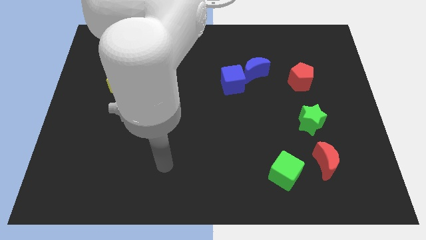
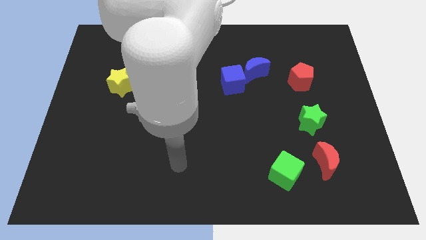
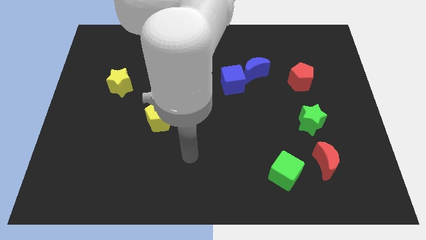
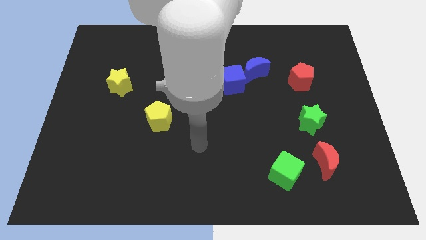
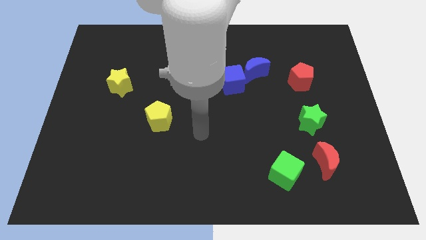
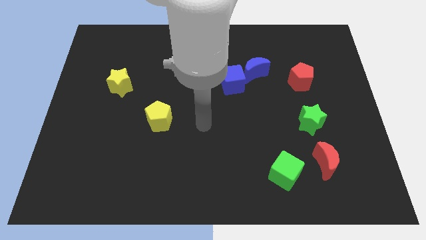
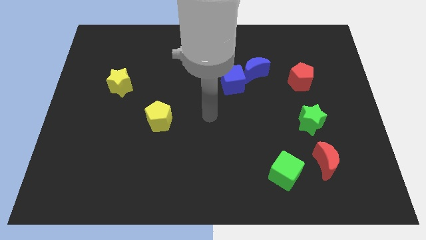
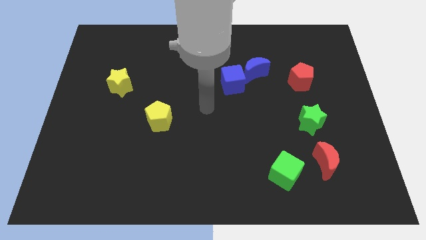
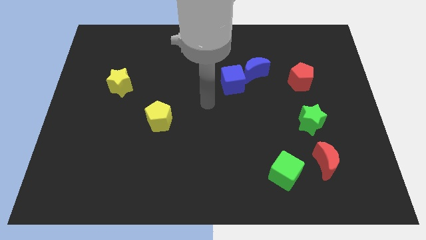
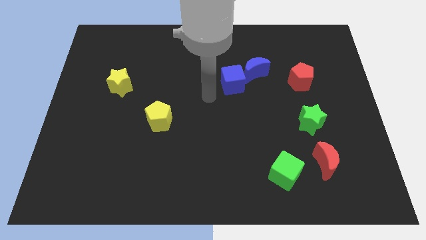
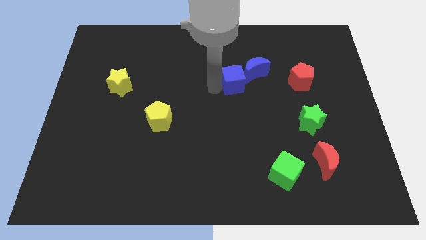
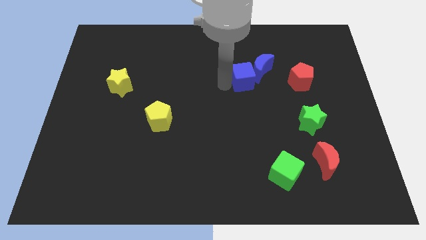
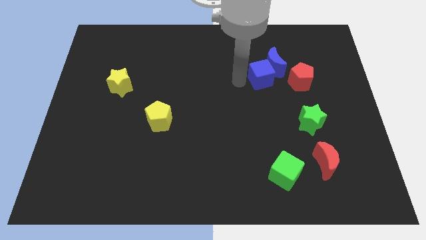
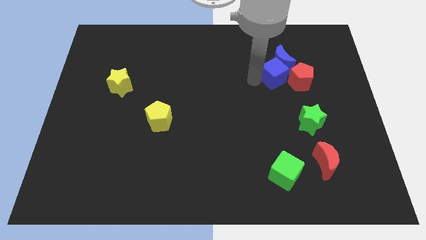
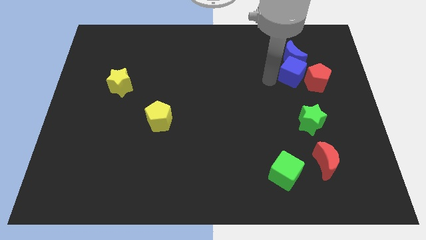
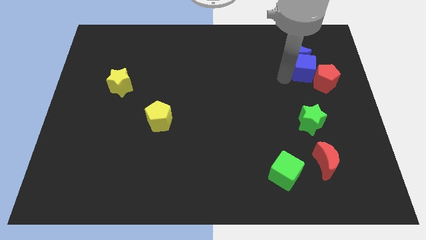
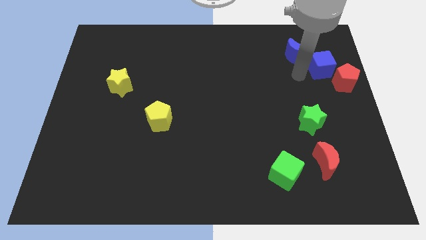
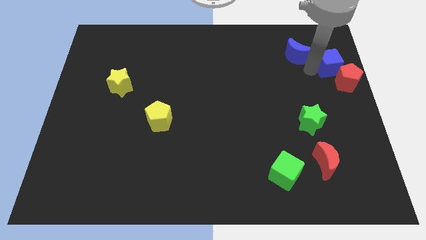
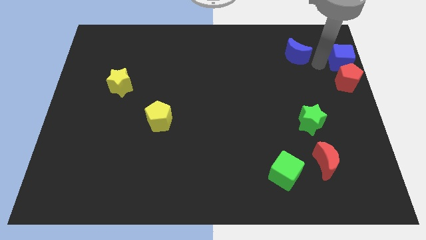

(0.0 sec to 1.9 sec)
move the blue moon away from the blue cube

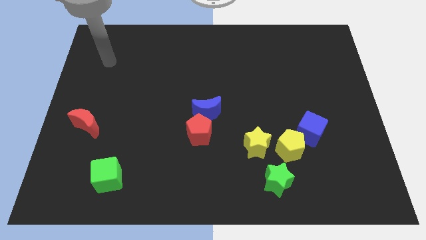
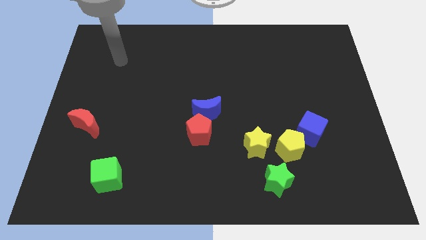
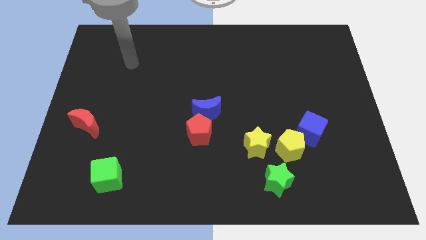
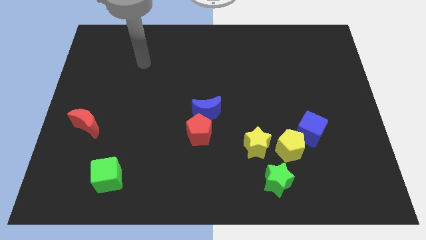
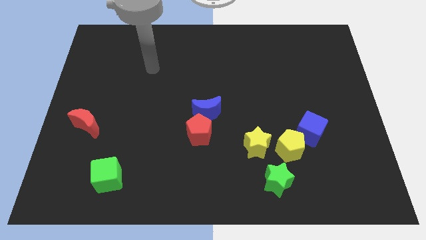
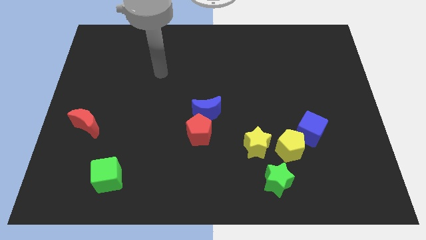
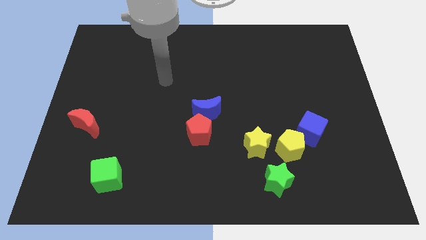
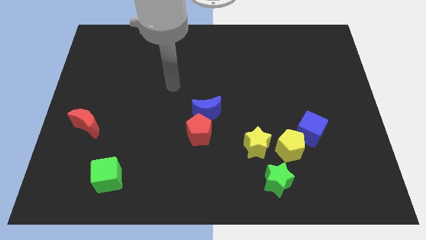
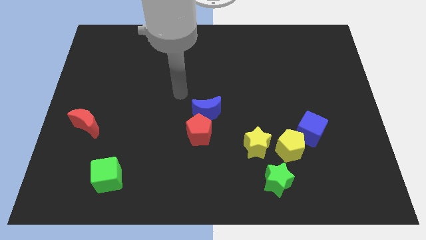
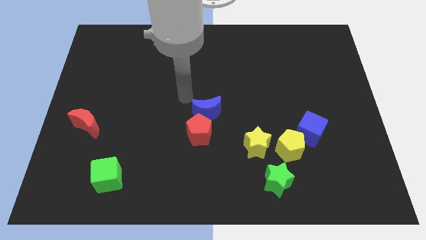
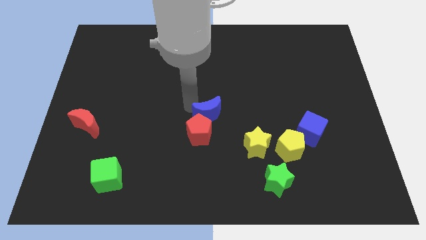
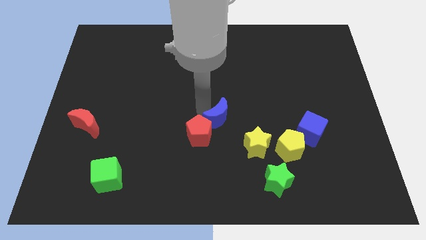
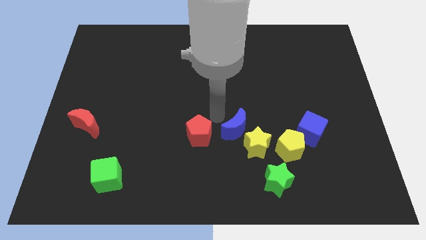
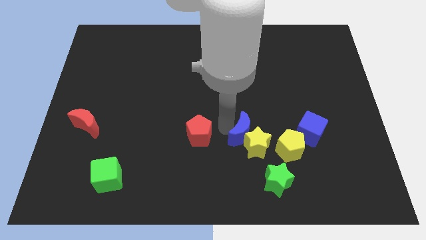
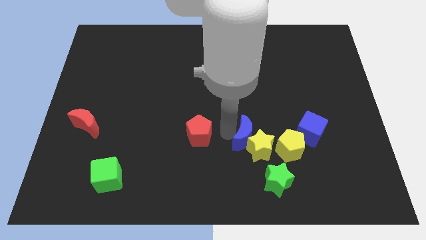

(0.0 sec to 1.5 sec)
separate the red pentagon from the blue moon

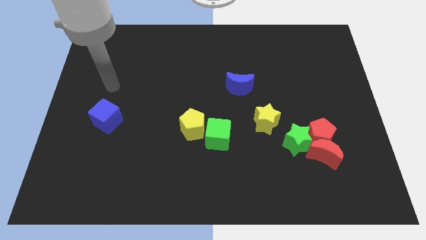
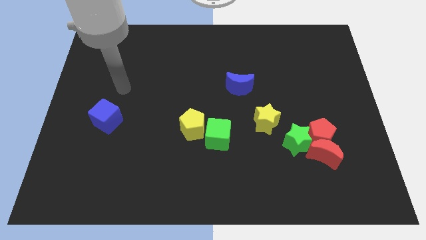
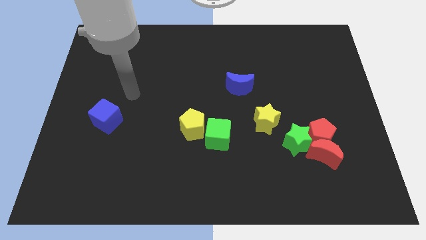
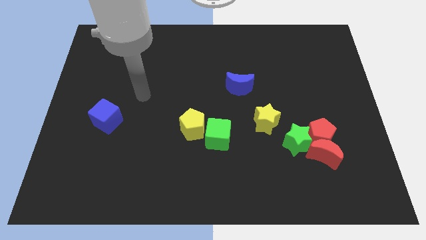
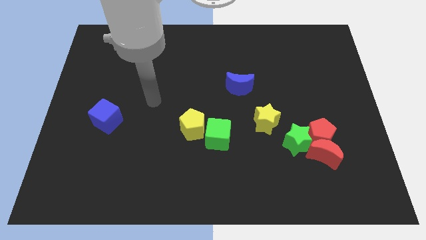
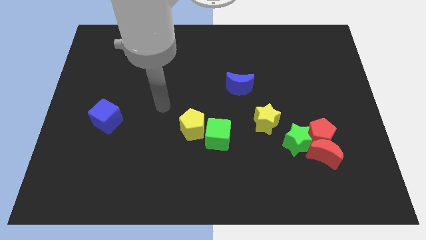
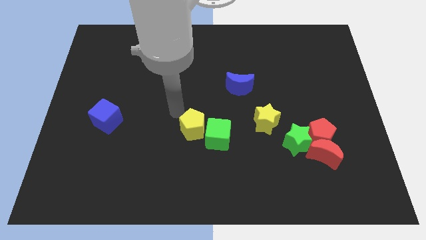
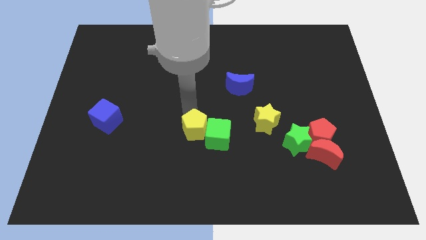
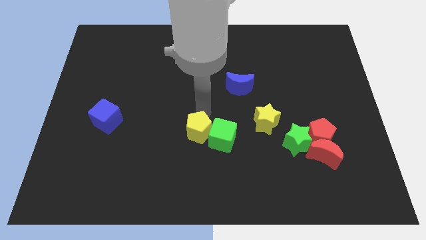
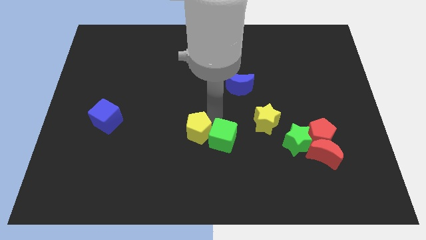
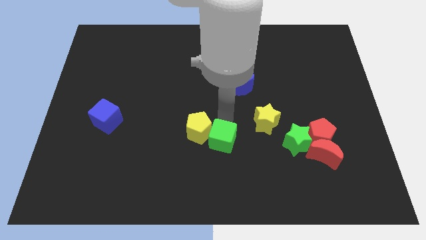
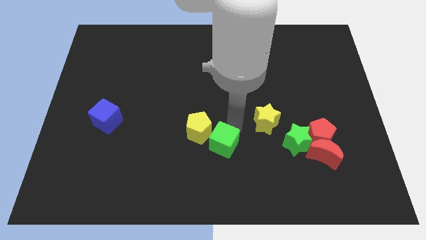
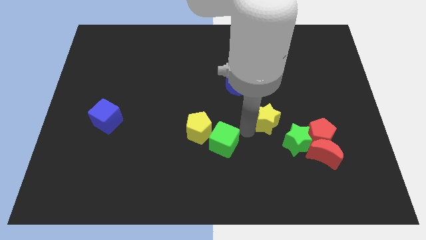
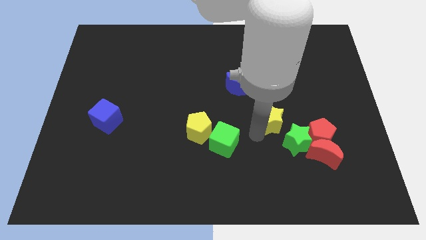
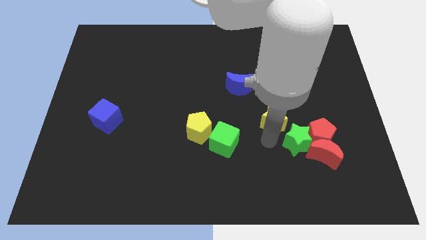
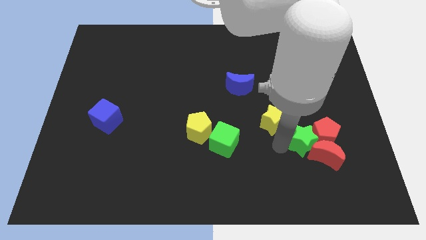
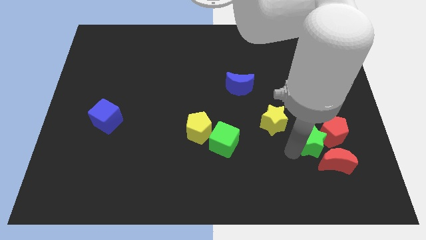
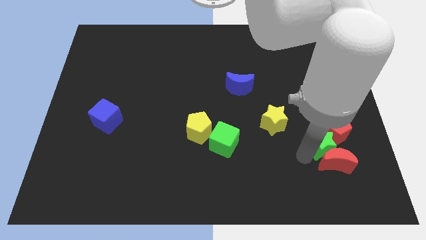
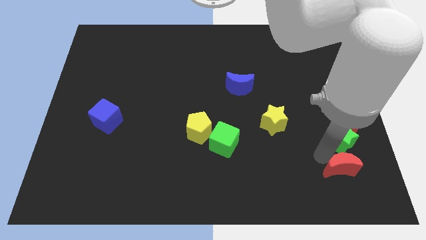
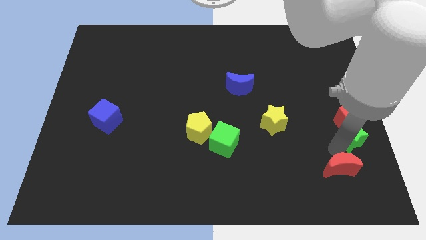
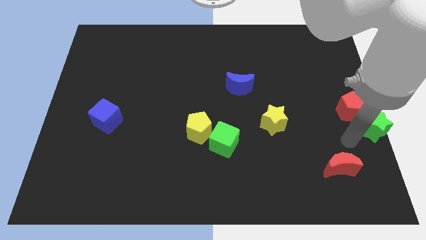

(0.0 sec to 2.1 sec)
move the red pentagon away from the red moon and green star

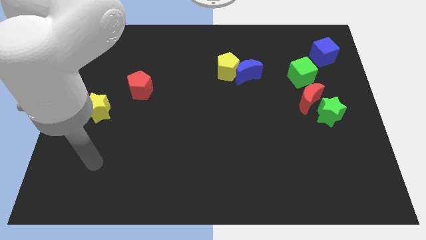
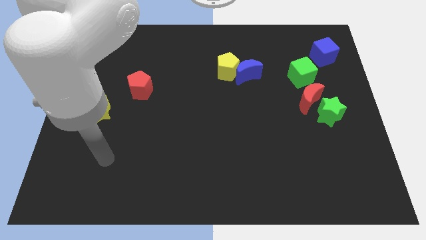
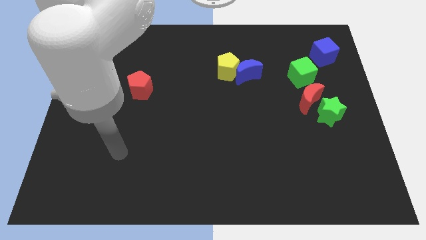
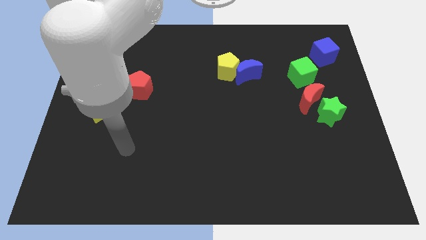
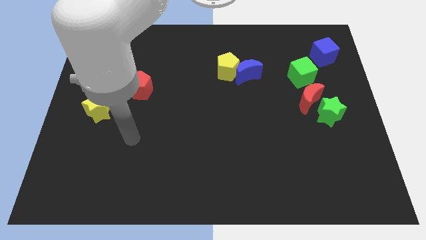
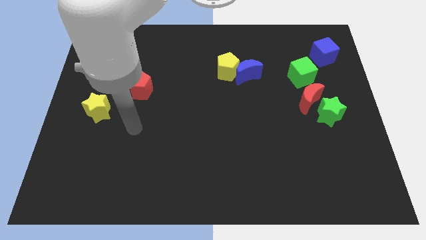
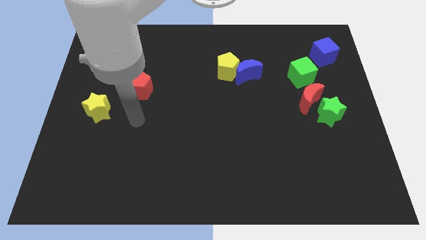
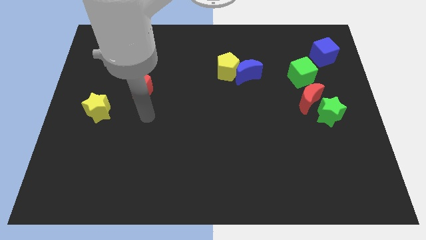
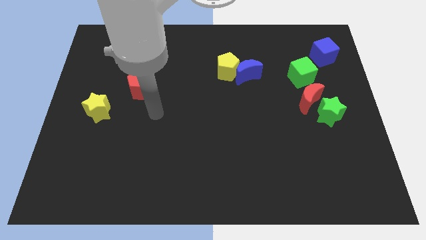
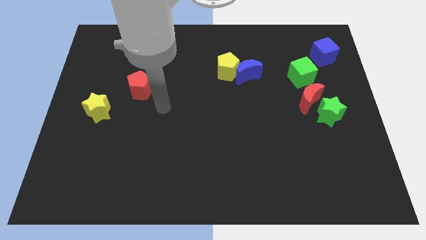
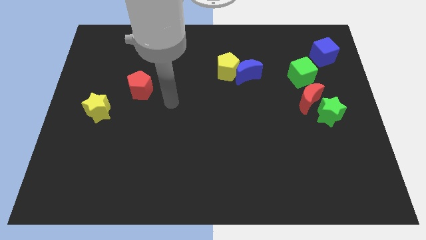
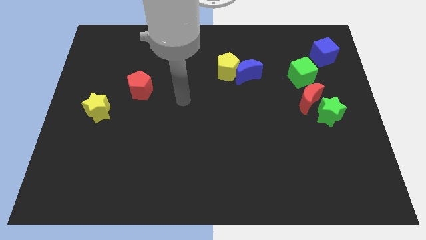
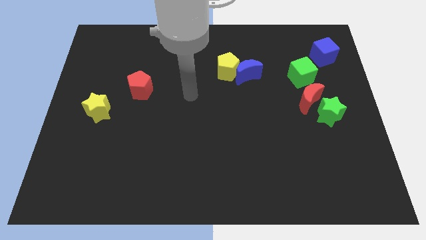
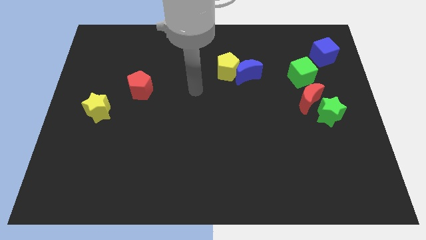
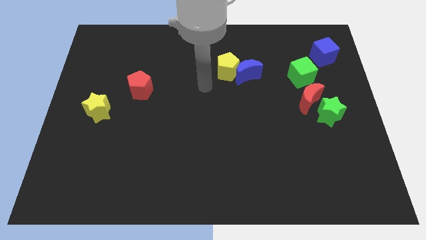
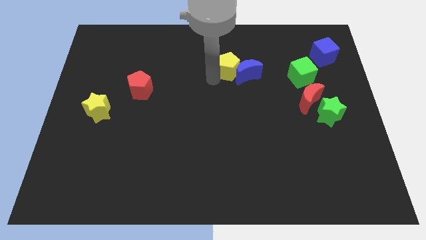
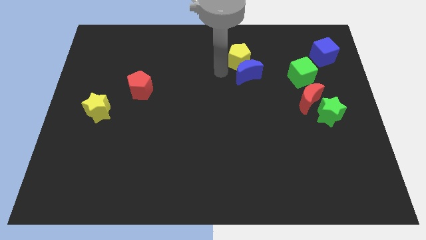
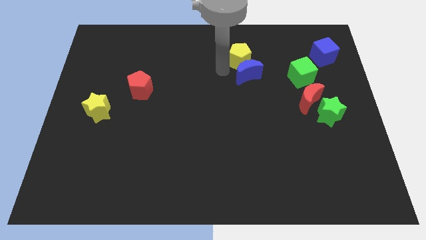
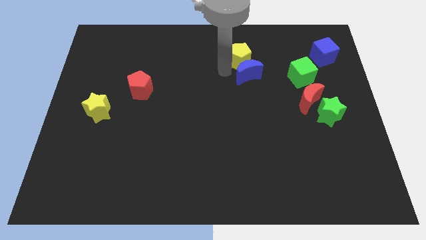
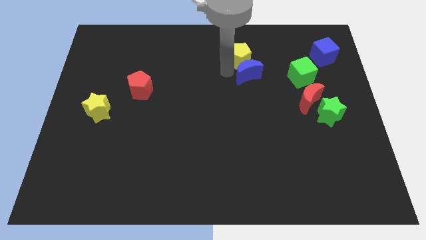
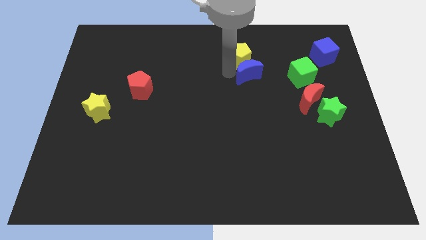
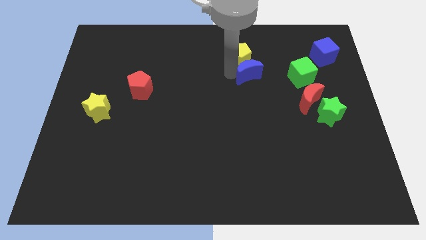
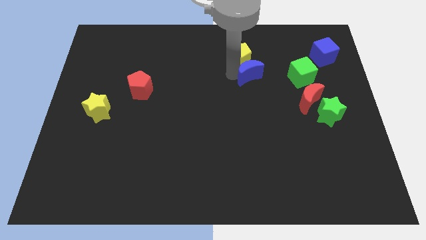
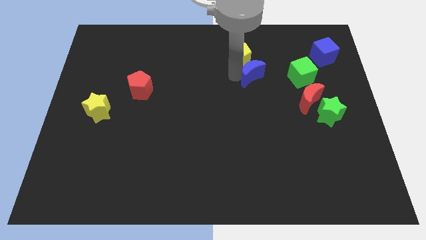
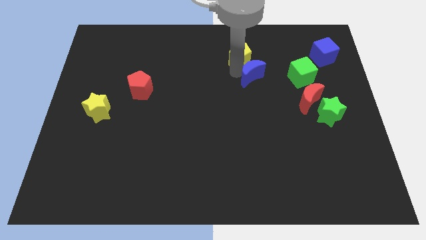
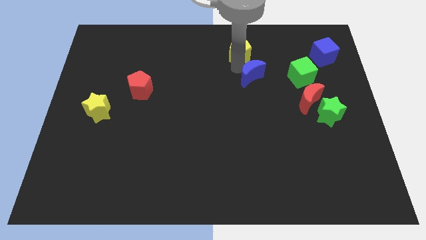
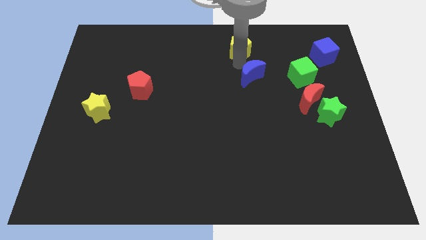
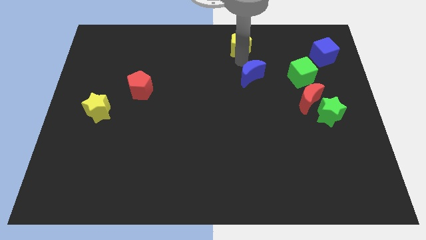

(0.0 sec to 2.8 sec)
separate the blue moon from the yellow pentagon

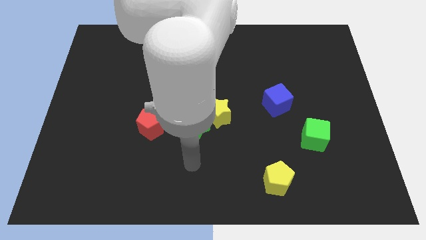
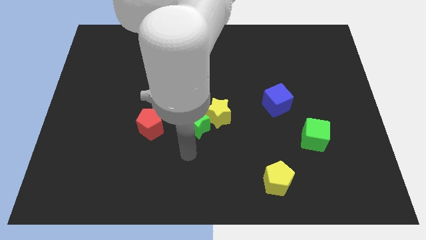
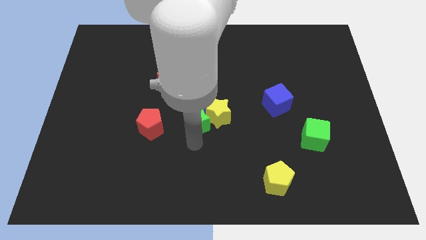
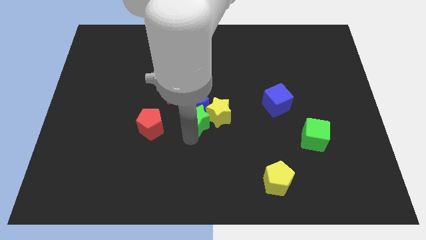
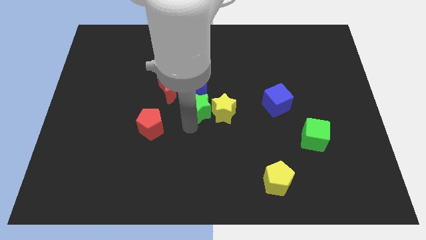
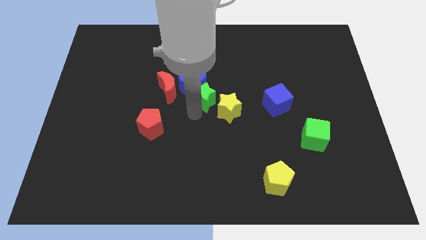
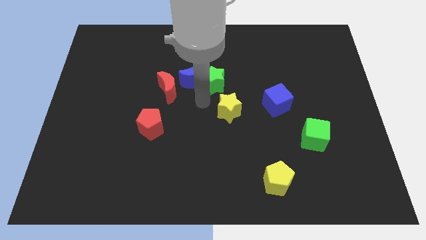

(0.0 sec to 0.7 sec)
move the yellow star away from the green star and blue moon

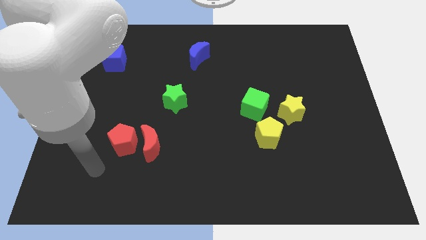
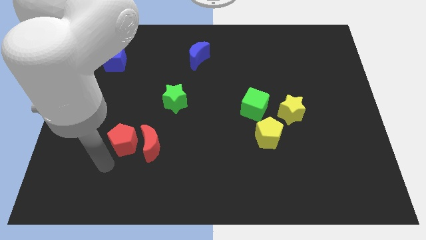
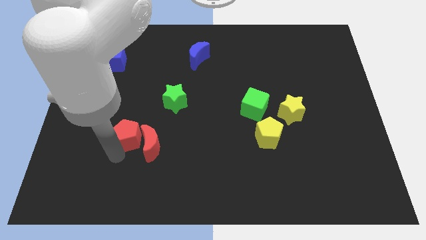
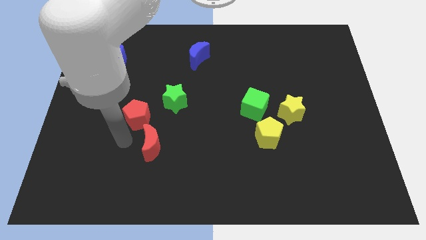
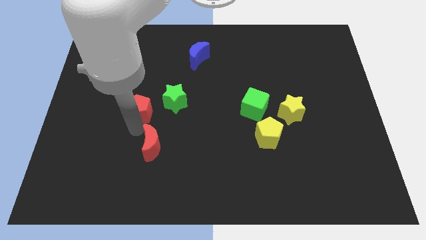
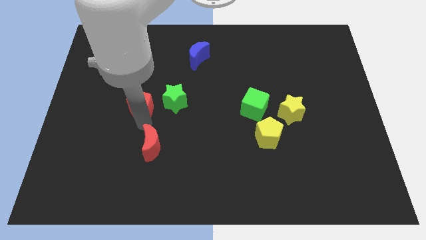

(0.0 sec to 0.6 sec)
pull the red moon apart from the red pentagon
